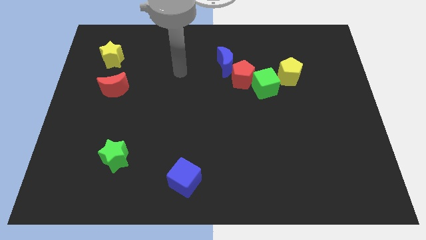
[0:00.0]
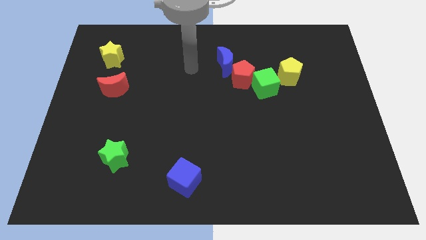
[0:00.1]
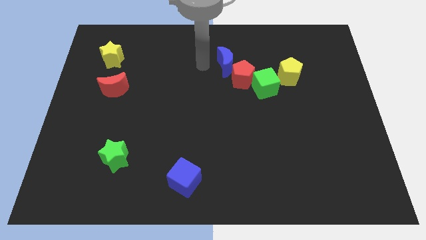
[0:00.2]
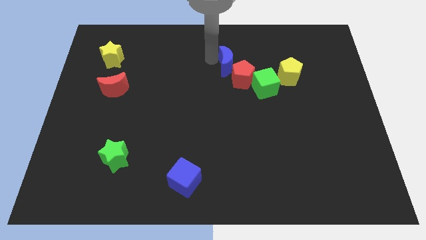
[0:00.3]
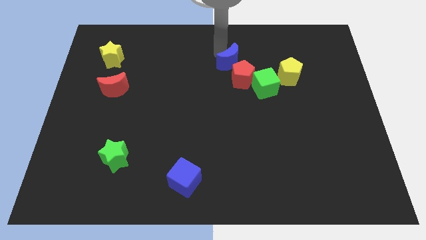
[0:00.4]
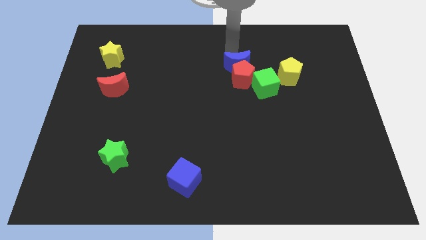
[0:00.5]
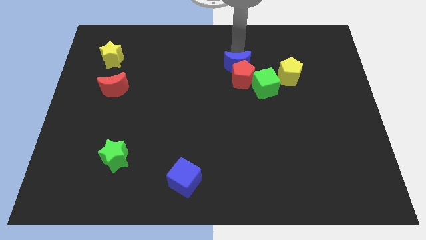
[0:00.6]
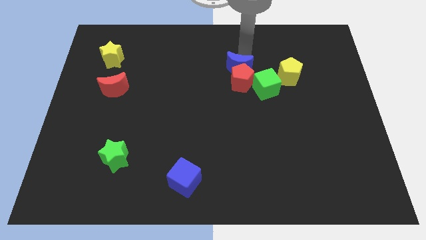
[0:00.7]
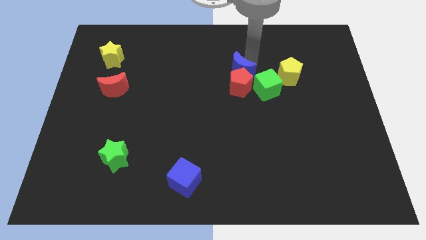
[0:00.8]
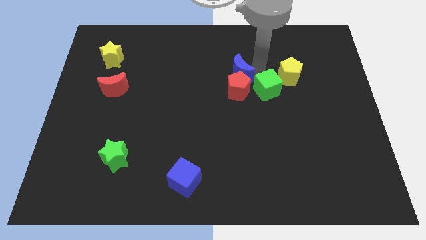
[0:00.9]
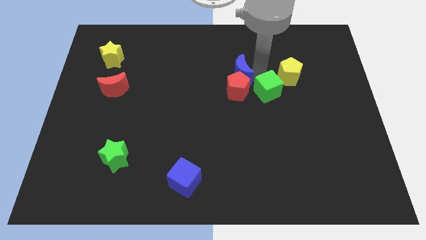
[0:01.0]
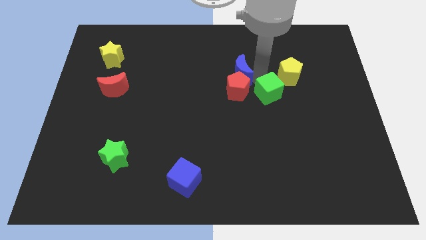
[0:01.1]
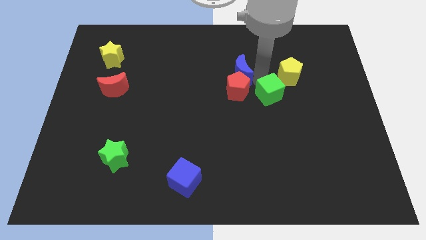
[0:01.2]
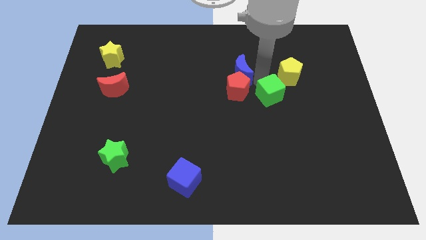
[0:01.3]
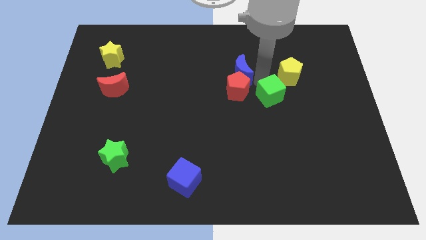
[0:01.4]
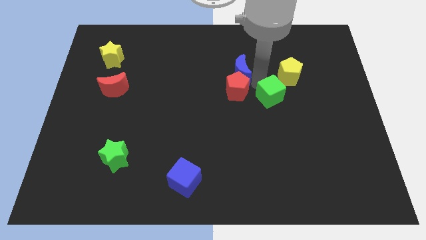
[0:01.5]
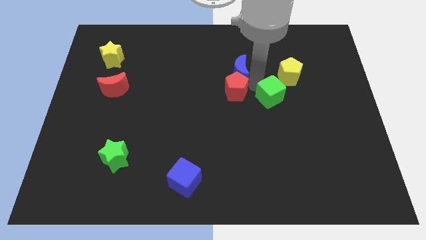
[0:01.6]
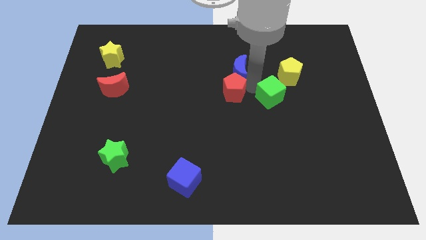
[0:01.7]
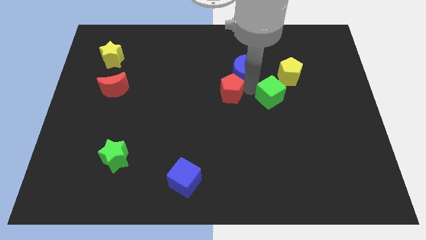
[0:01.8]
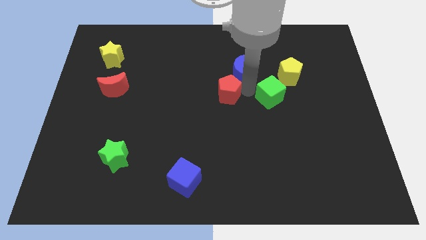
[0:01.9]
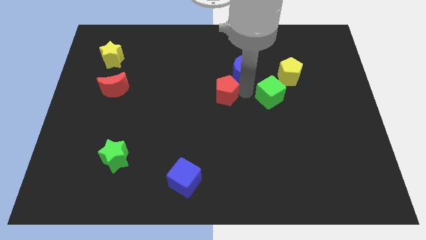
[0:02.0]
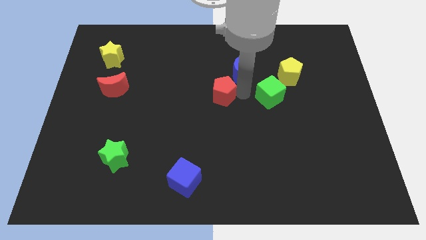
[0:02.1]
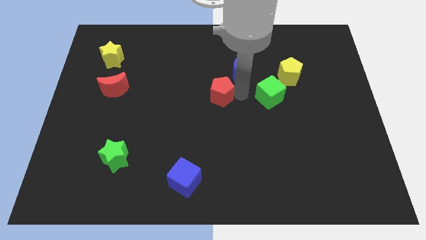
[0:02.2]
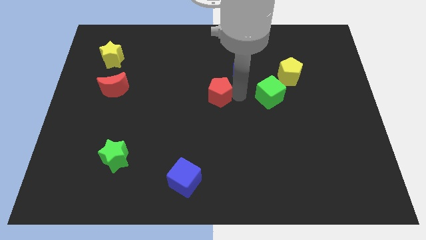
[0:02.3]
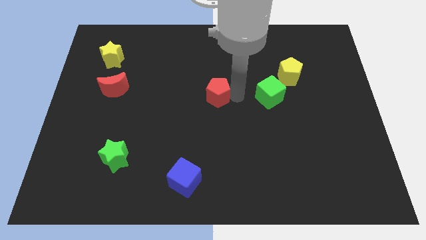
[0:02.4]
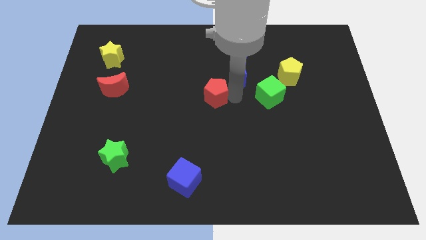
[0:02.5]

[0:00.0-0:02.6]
separate the red pentagon from the green cube and blue moon

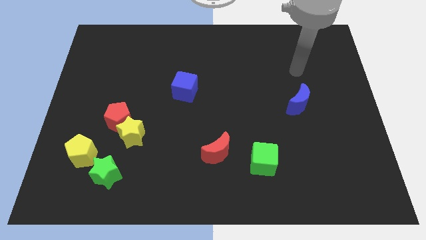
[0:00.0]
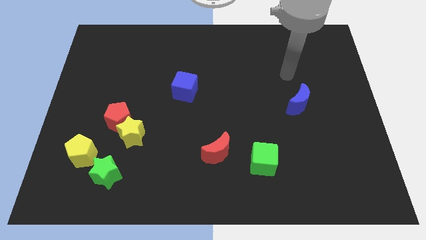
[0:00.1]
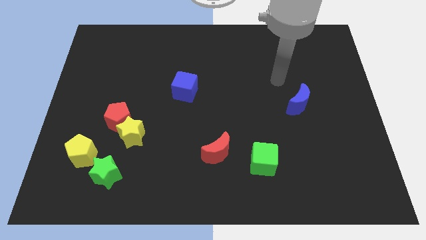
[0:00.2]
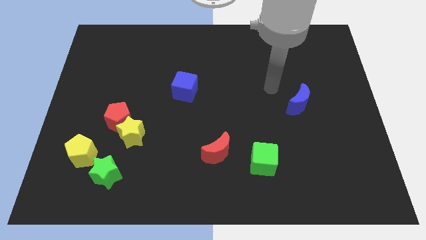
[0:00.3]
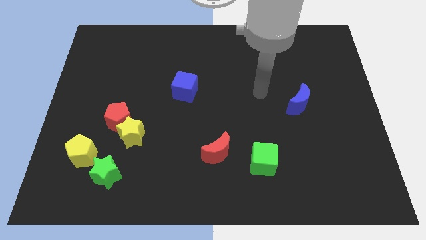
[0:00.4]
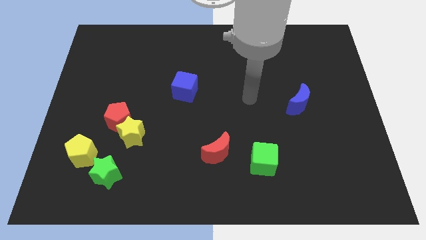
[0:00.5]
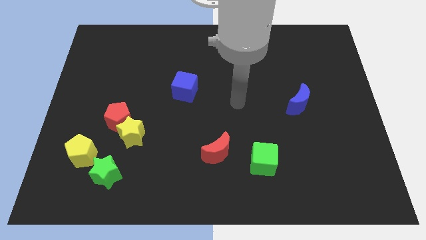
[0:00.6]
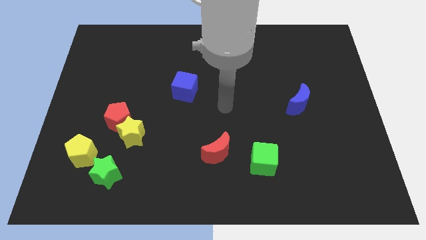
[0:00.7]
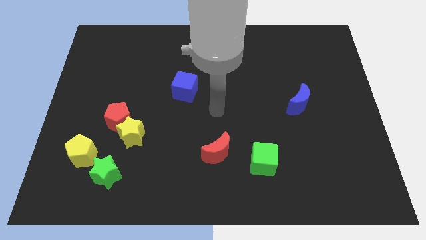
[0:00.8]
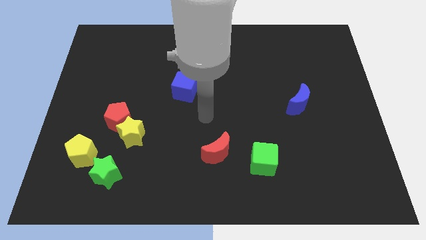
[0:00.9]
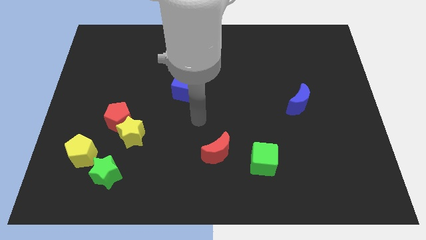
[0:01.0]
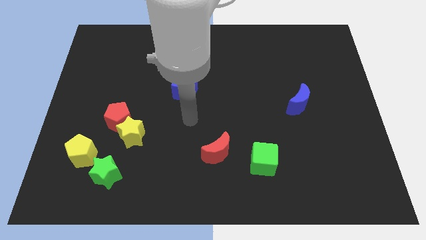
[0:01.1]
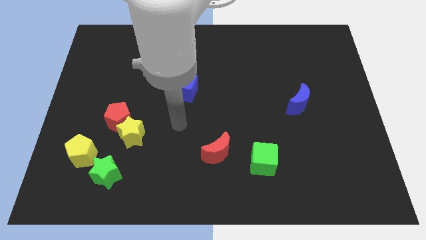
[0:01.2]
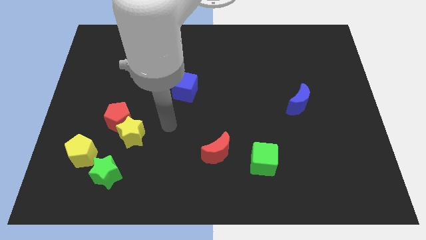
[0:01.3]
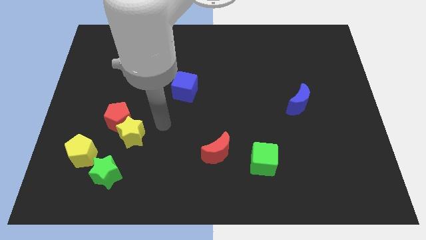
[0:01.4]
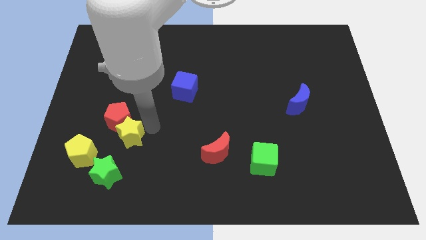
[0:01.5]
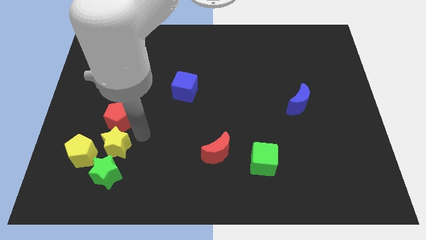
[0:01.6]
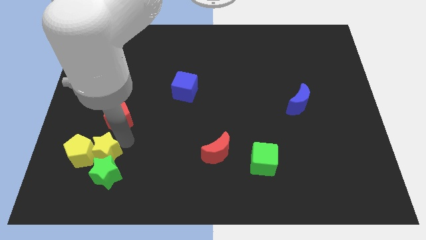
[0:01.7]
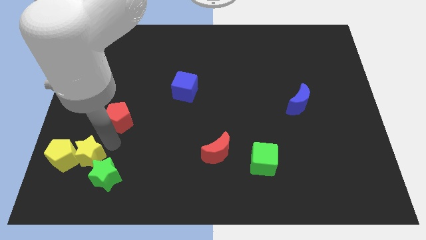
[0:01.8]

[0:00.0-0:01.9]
separate the red pentagon from the yellow star

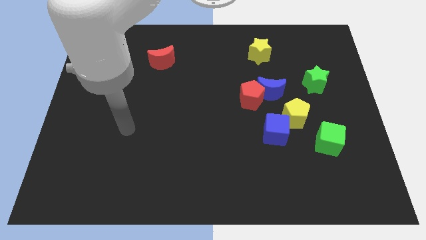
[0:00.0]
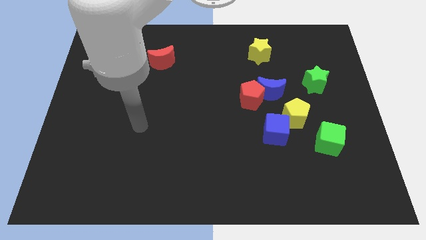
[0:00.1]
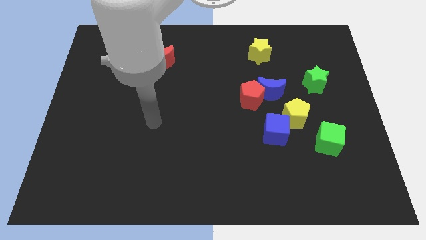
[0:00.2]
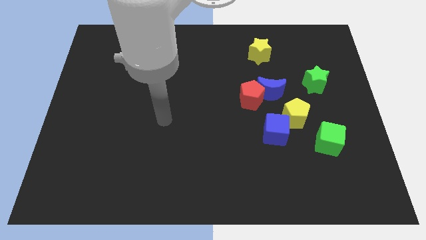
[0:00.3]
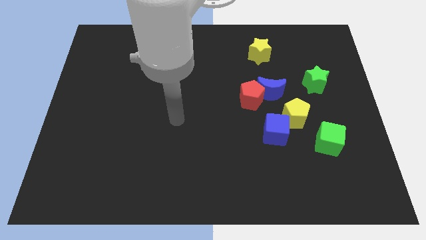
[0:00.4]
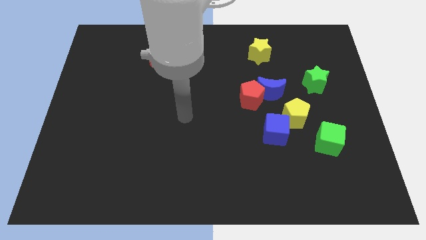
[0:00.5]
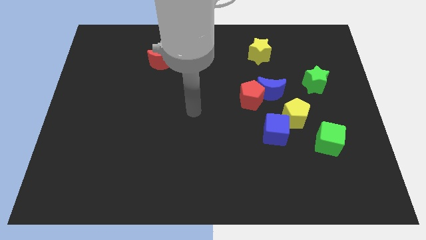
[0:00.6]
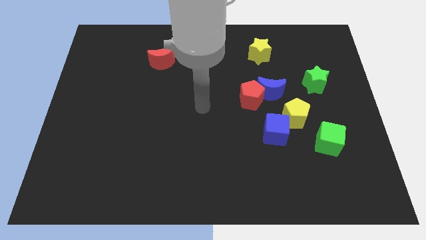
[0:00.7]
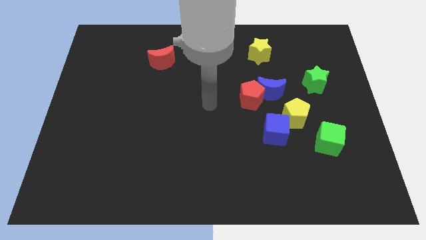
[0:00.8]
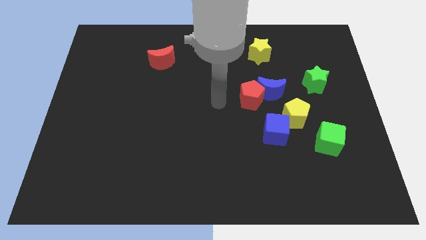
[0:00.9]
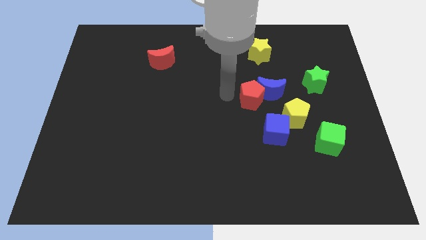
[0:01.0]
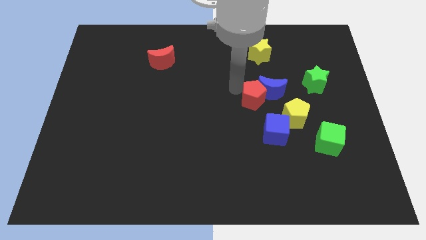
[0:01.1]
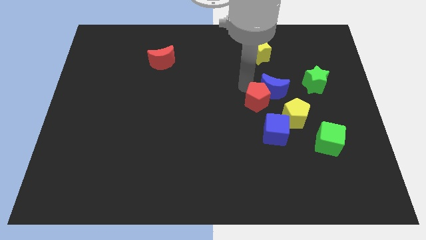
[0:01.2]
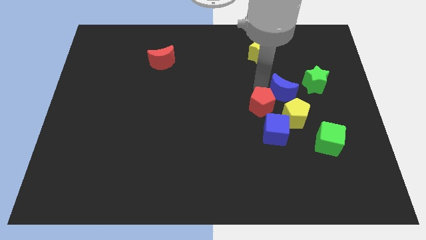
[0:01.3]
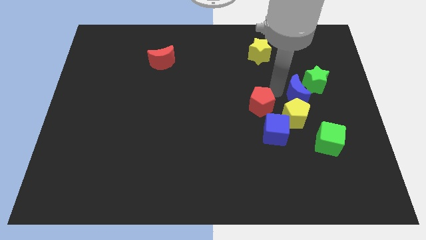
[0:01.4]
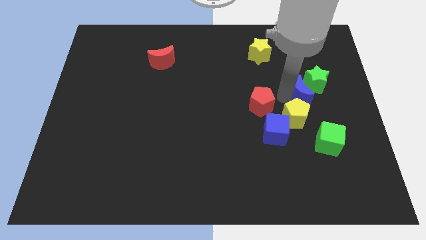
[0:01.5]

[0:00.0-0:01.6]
move the red pentagon away from the blue moon

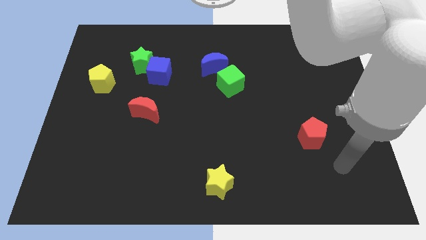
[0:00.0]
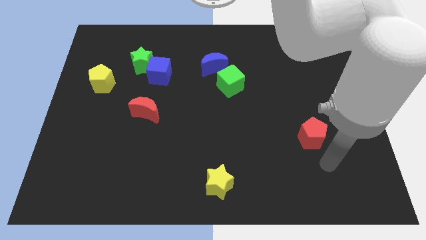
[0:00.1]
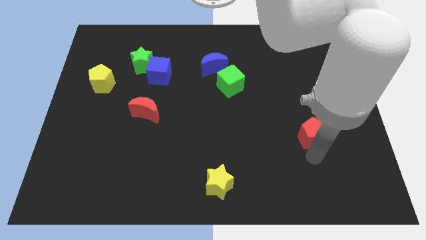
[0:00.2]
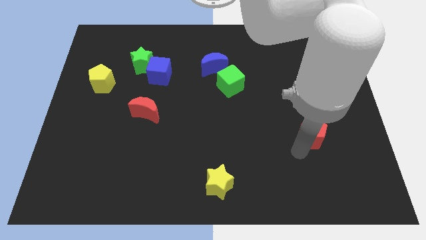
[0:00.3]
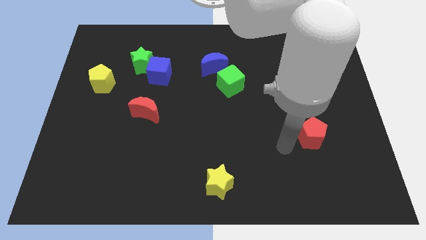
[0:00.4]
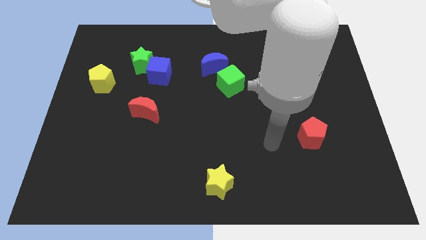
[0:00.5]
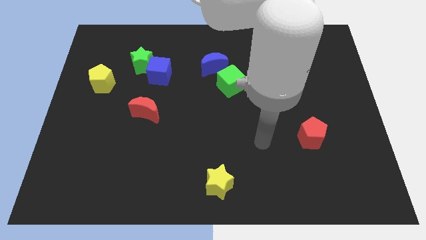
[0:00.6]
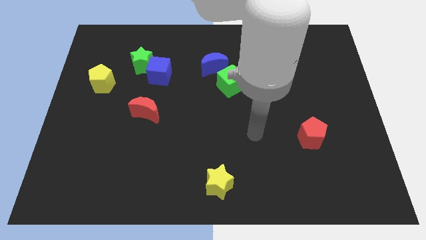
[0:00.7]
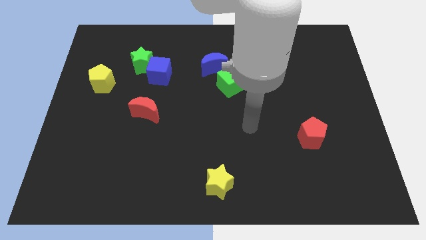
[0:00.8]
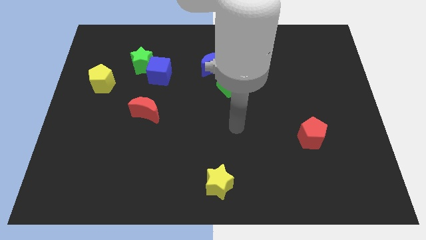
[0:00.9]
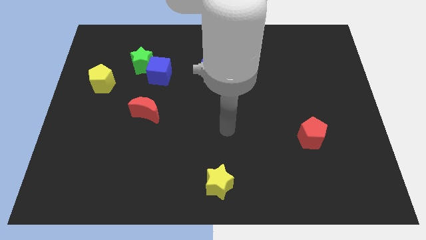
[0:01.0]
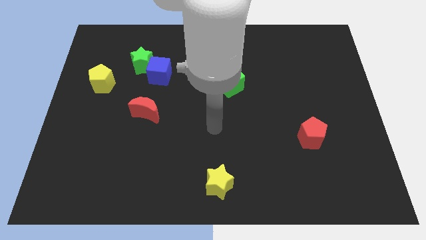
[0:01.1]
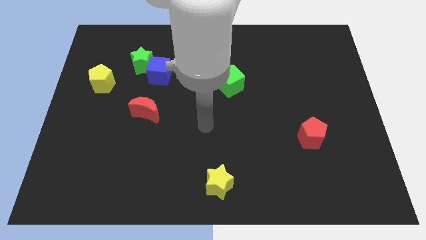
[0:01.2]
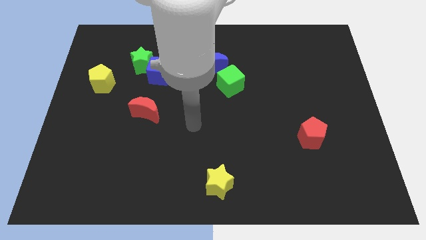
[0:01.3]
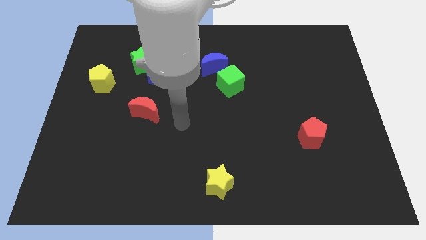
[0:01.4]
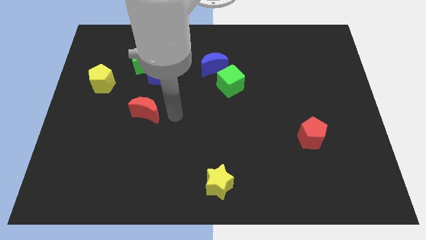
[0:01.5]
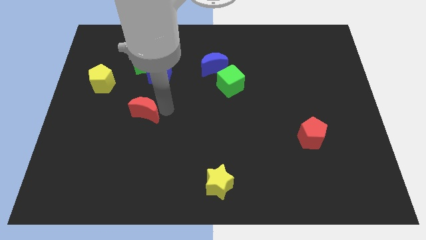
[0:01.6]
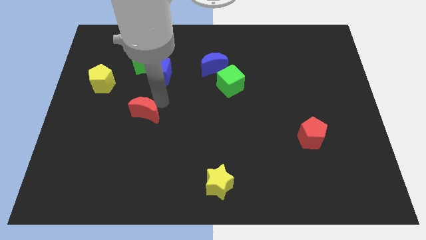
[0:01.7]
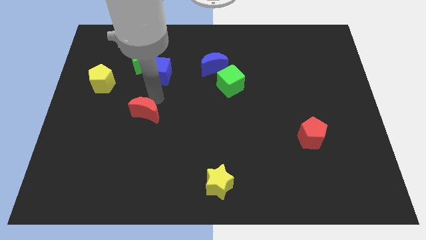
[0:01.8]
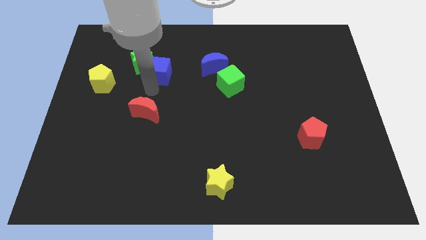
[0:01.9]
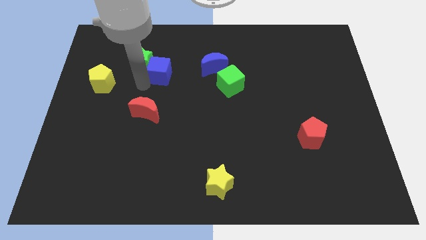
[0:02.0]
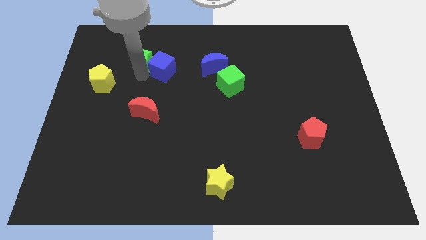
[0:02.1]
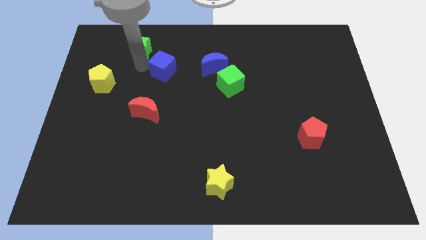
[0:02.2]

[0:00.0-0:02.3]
pull the blue cube apart from the green star

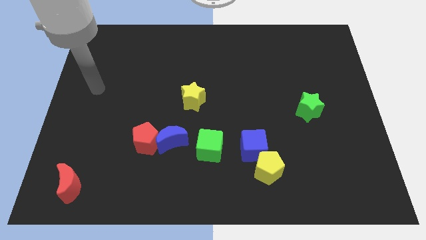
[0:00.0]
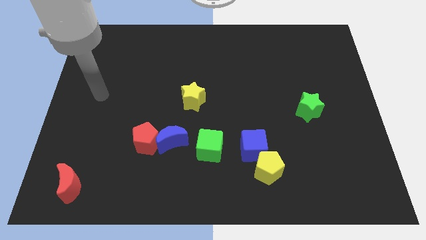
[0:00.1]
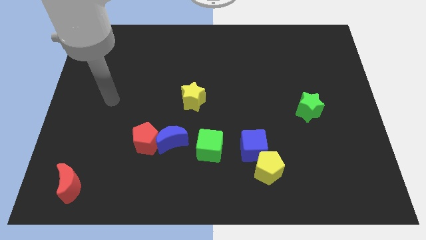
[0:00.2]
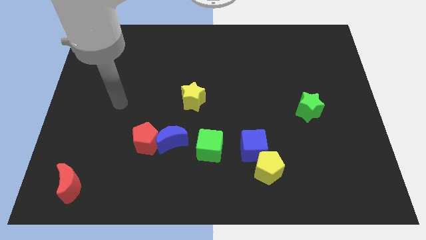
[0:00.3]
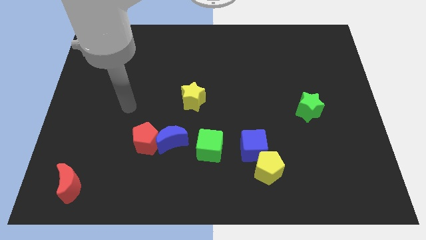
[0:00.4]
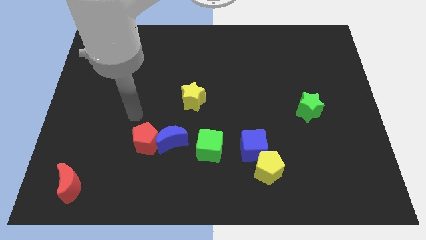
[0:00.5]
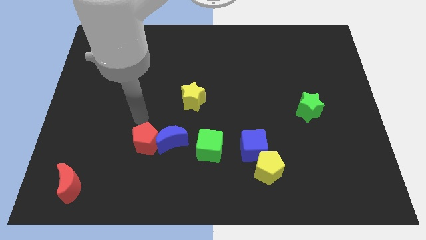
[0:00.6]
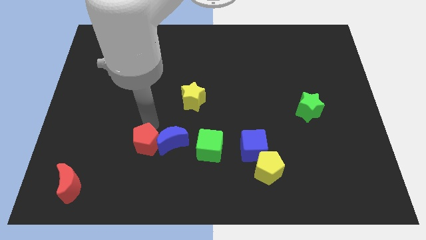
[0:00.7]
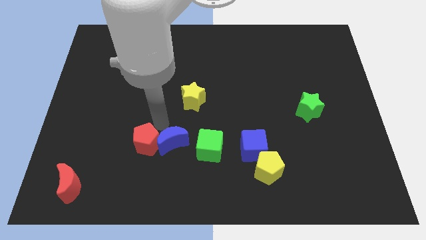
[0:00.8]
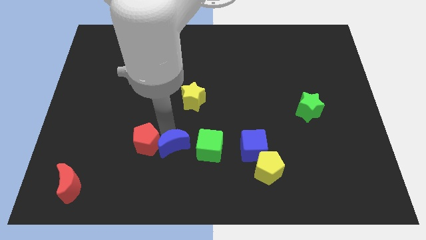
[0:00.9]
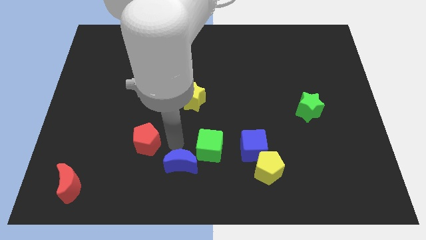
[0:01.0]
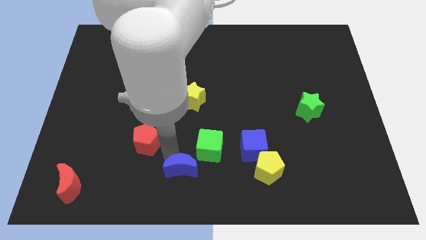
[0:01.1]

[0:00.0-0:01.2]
separate the red pentagon from the blue moon
